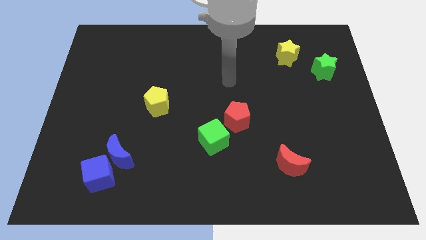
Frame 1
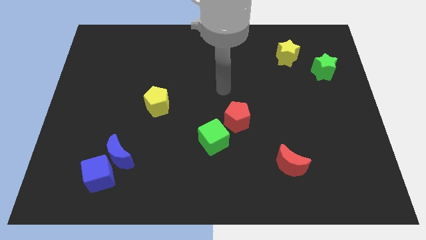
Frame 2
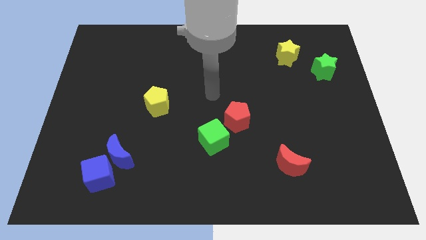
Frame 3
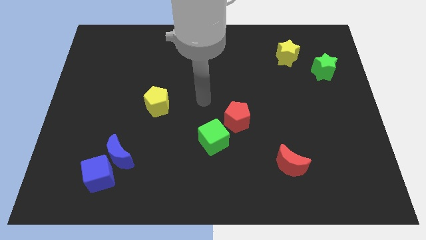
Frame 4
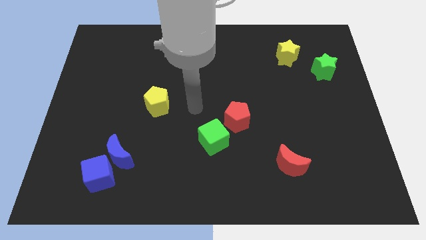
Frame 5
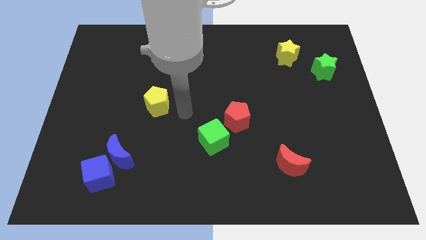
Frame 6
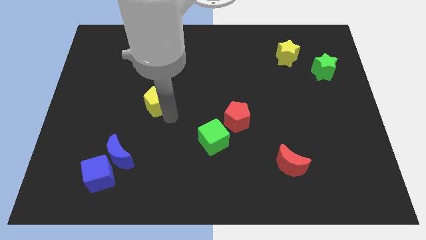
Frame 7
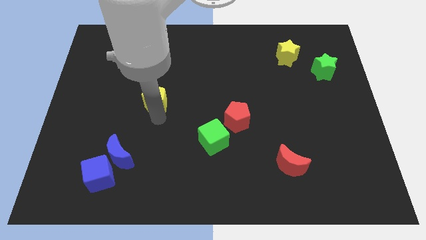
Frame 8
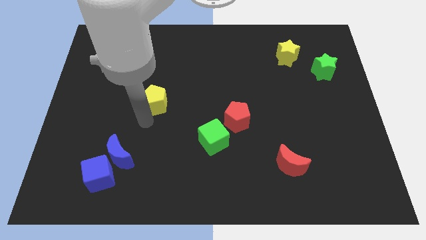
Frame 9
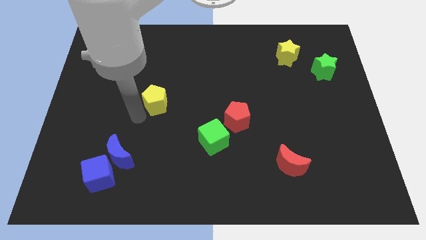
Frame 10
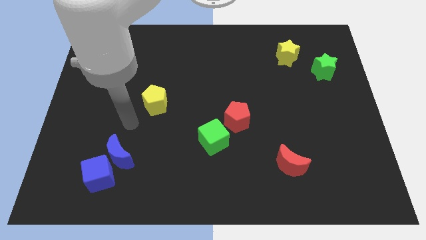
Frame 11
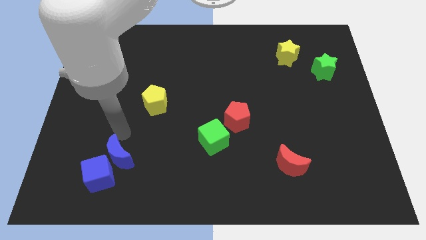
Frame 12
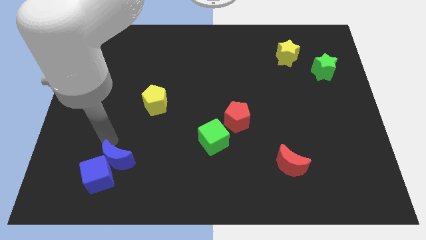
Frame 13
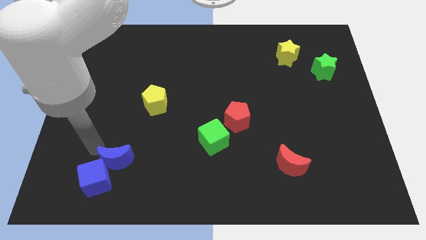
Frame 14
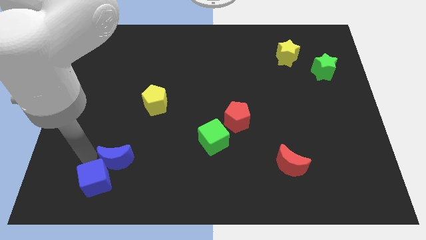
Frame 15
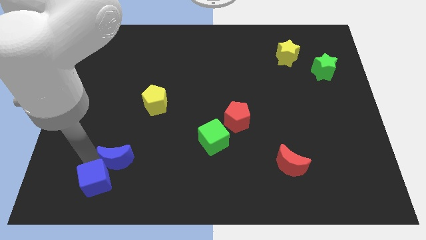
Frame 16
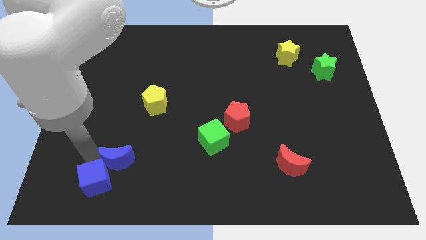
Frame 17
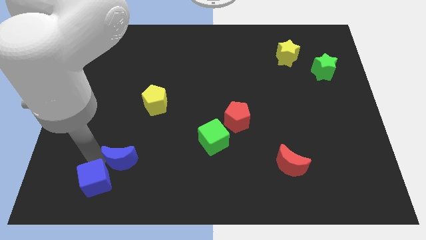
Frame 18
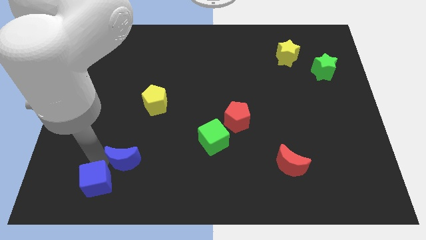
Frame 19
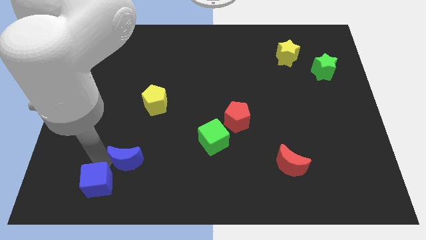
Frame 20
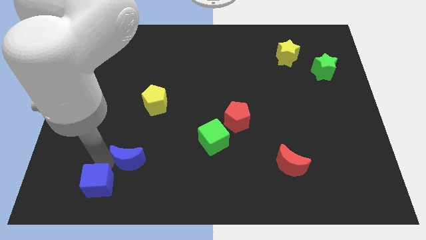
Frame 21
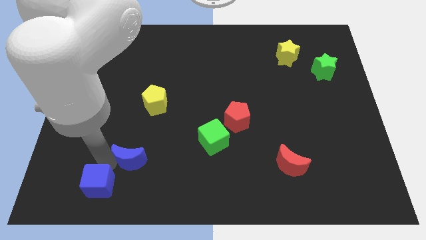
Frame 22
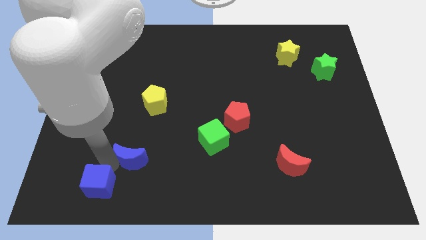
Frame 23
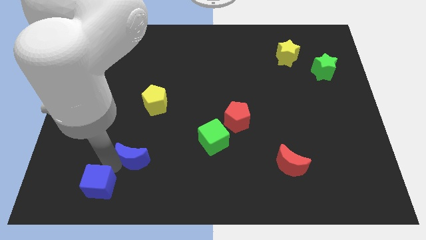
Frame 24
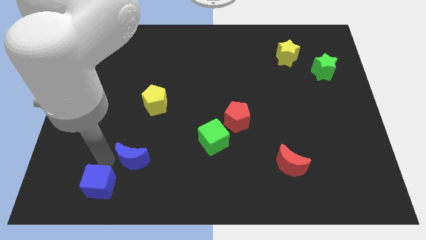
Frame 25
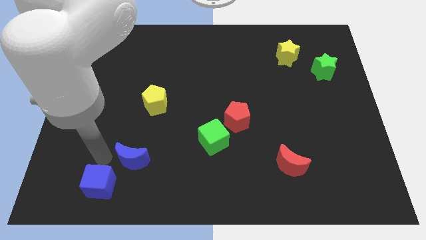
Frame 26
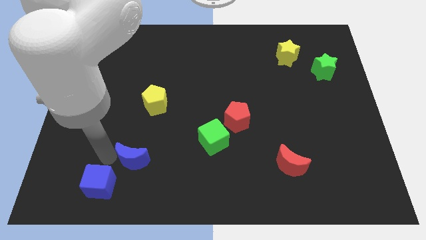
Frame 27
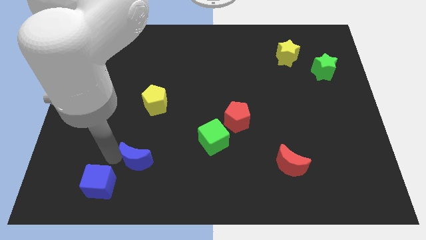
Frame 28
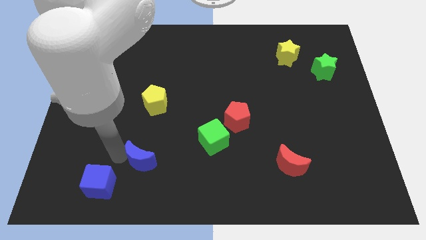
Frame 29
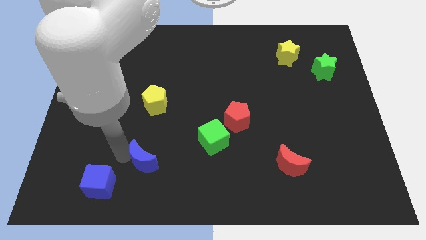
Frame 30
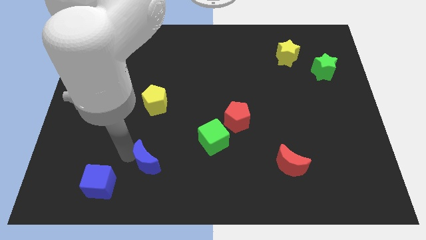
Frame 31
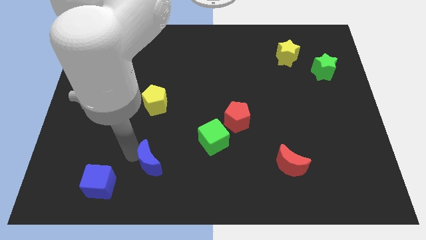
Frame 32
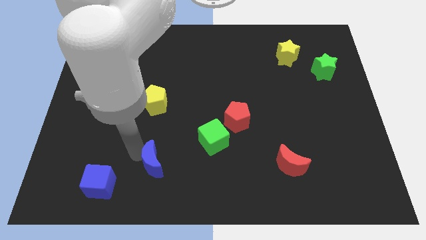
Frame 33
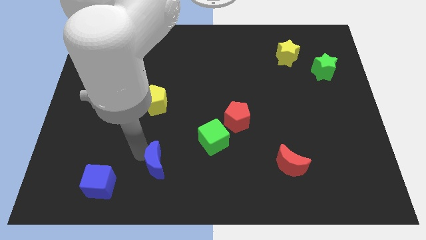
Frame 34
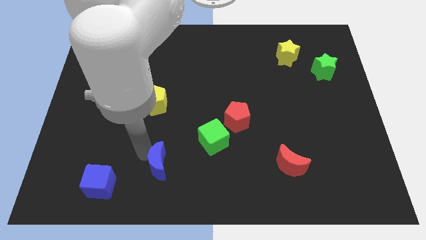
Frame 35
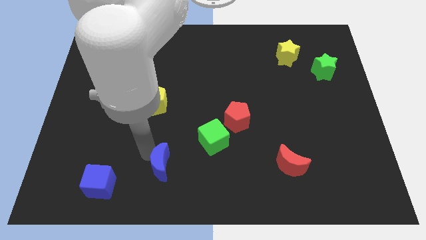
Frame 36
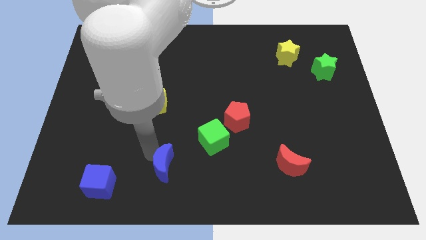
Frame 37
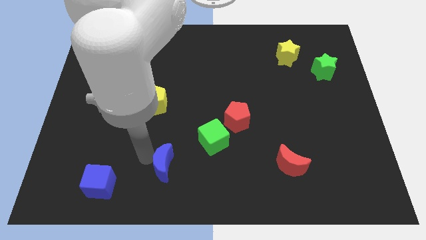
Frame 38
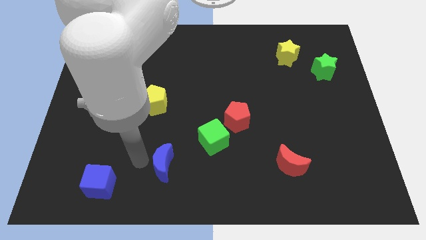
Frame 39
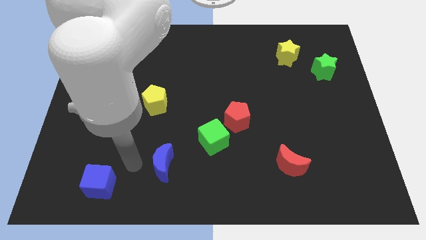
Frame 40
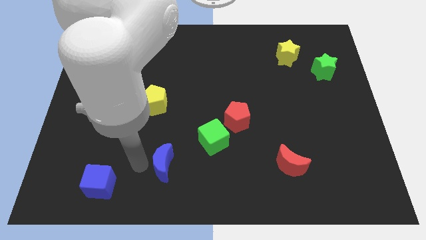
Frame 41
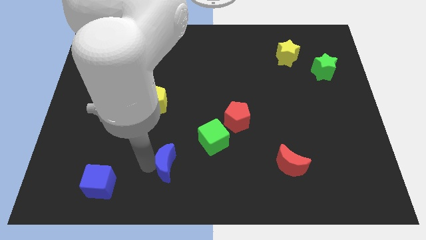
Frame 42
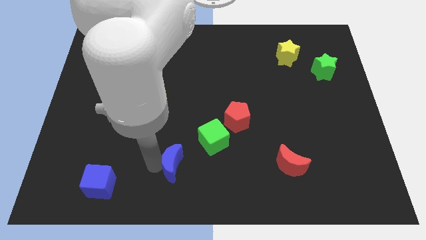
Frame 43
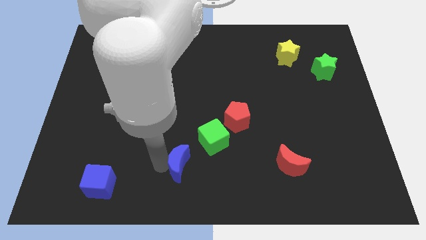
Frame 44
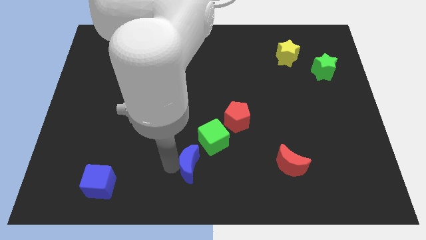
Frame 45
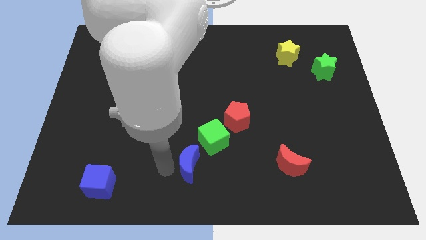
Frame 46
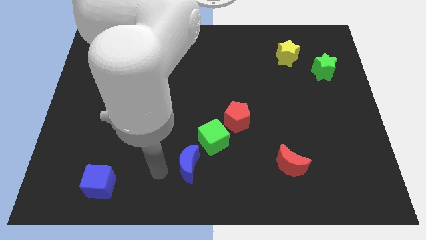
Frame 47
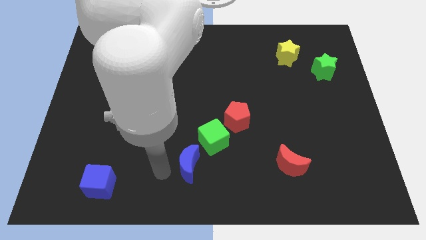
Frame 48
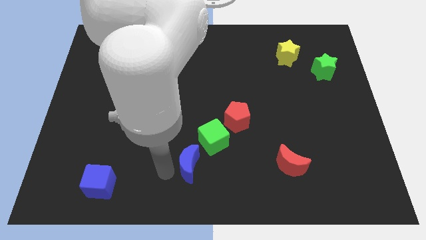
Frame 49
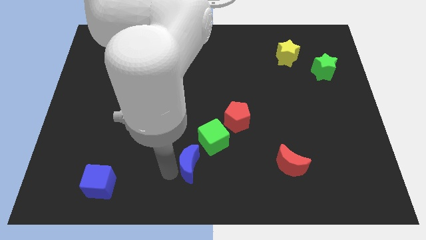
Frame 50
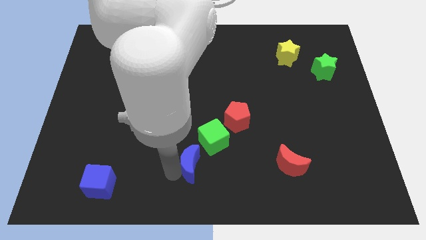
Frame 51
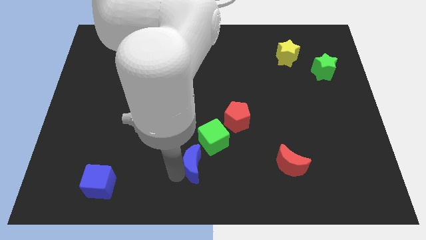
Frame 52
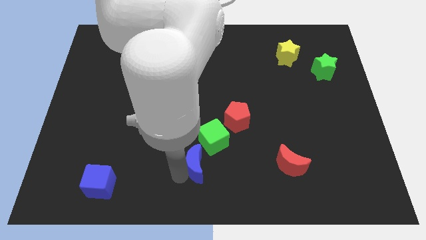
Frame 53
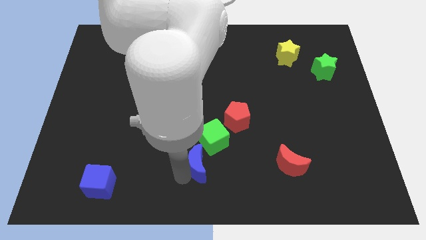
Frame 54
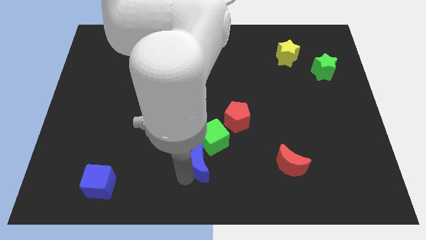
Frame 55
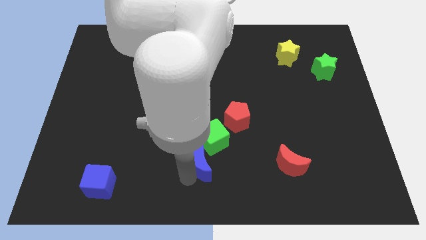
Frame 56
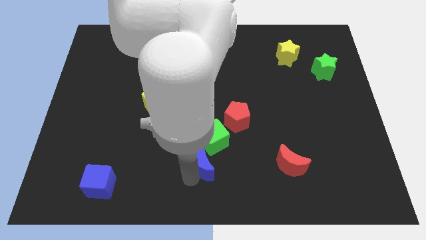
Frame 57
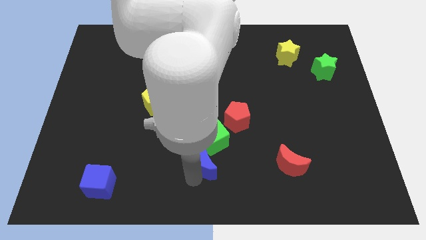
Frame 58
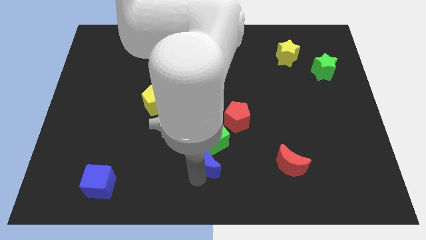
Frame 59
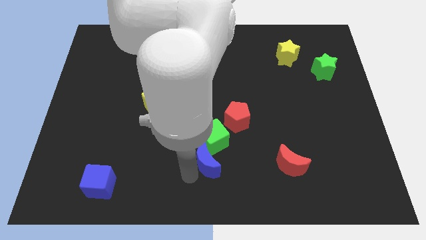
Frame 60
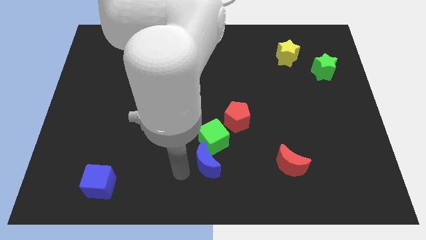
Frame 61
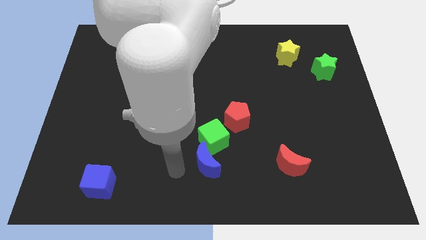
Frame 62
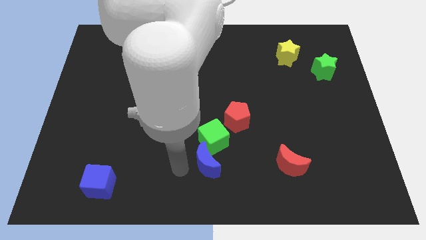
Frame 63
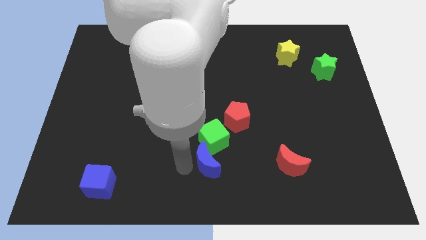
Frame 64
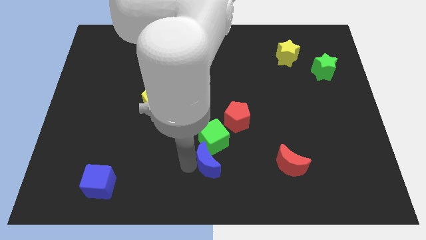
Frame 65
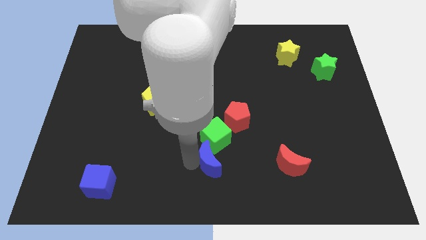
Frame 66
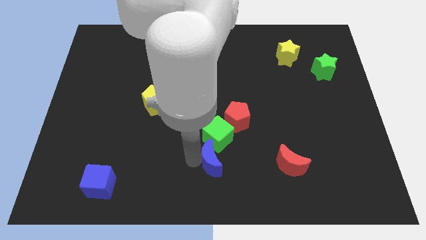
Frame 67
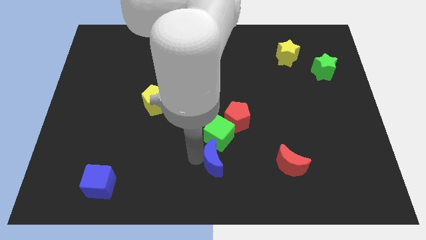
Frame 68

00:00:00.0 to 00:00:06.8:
move the blue moon to the right

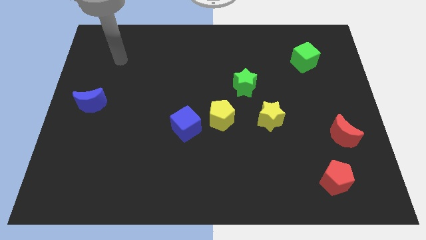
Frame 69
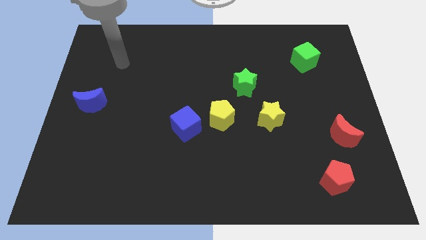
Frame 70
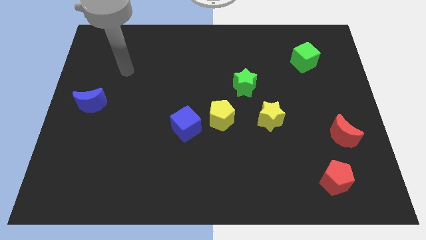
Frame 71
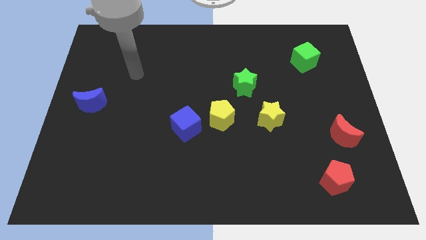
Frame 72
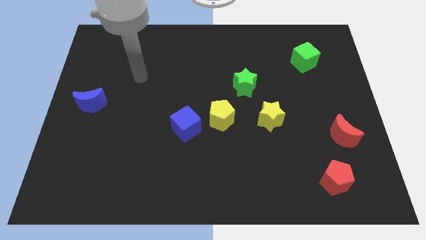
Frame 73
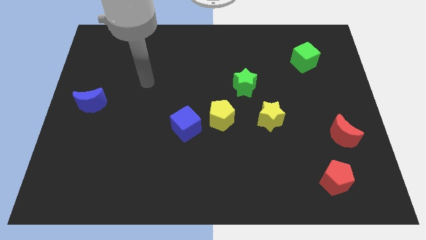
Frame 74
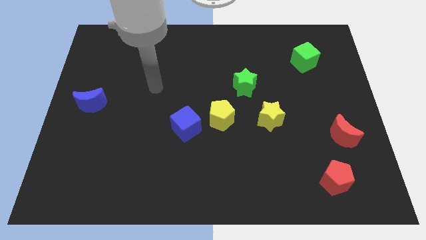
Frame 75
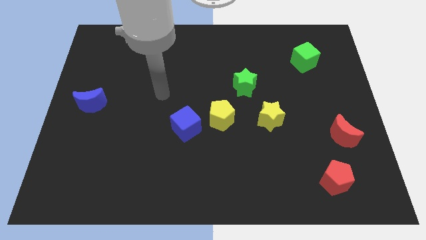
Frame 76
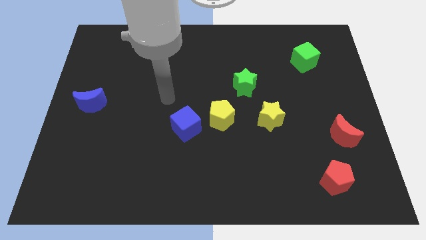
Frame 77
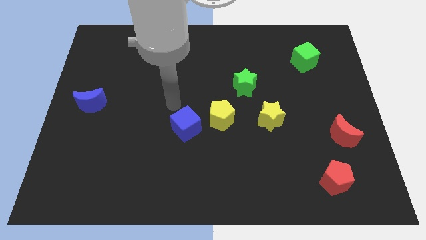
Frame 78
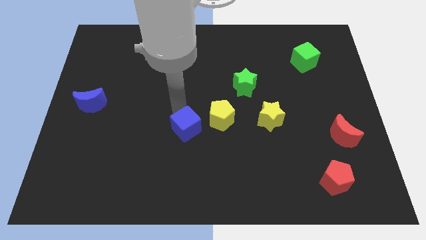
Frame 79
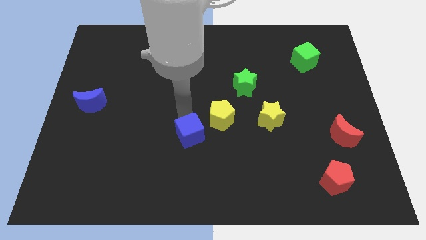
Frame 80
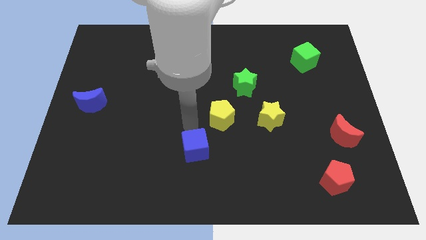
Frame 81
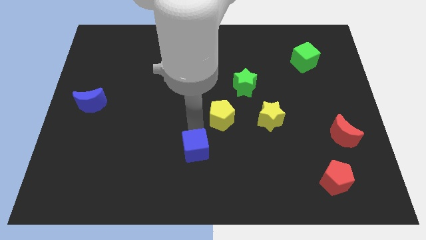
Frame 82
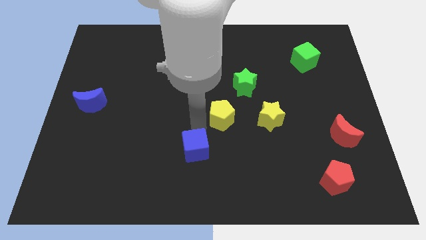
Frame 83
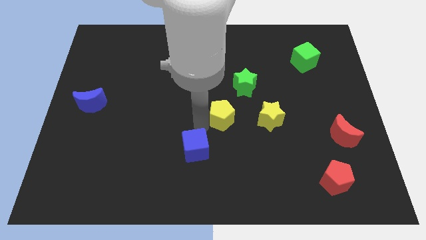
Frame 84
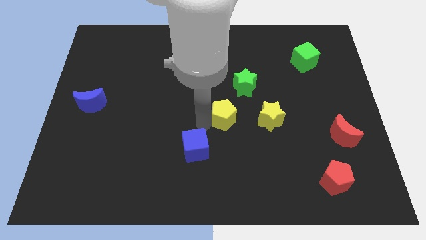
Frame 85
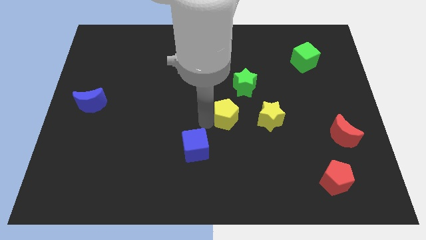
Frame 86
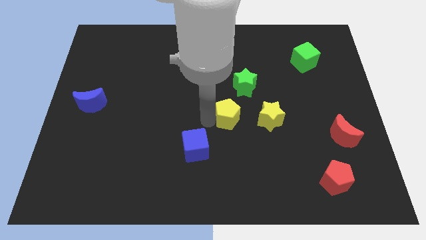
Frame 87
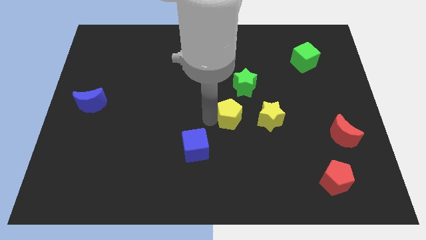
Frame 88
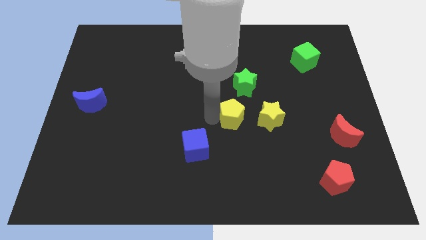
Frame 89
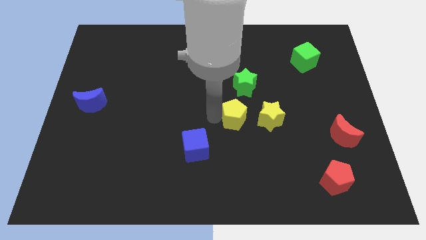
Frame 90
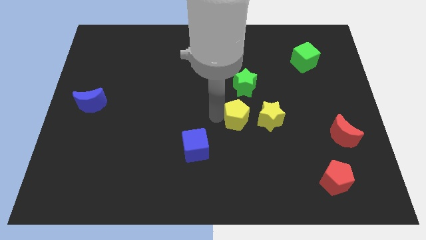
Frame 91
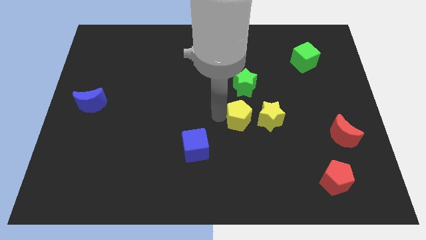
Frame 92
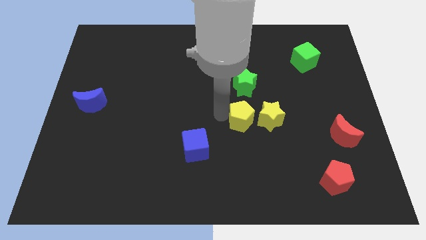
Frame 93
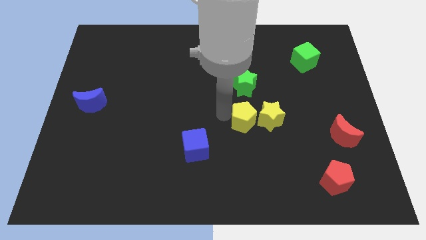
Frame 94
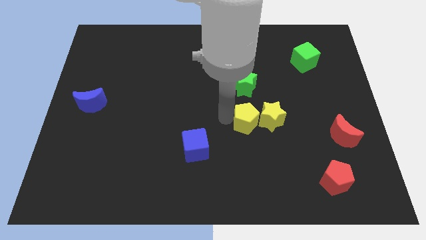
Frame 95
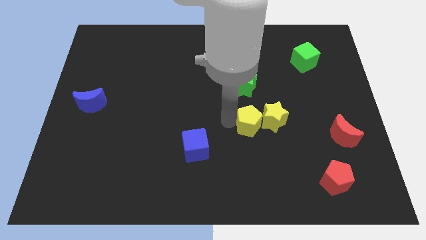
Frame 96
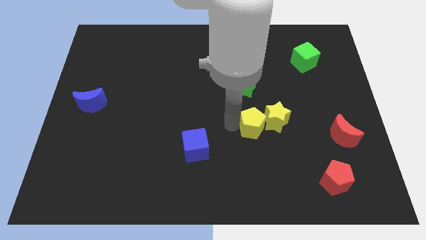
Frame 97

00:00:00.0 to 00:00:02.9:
move the yellow pentagon right a bit
